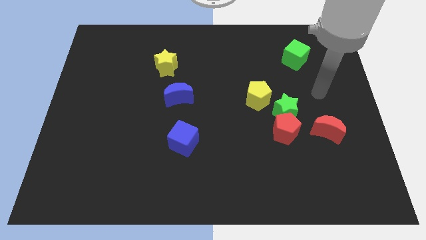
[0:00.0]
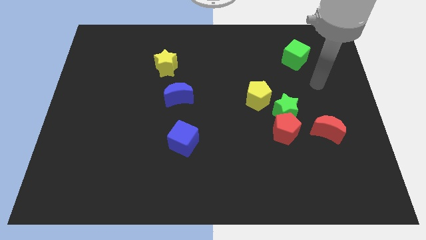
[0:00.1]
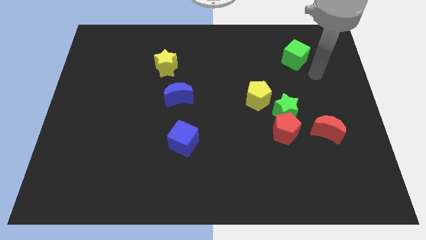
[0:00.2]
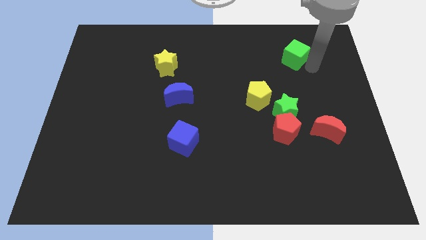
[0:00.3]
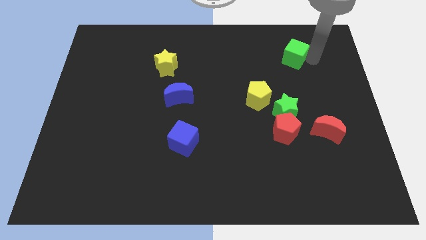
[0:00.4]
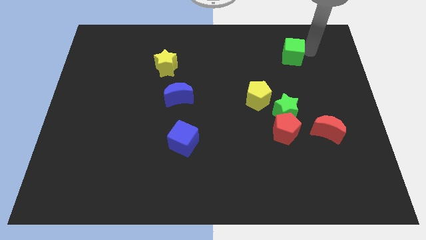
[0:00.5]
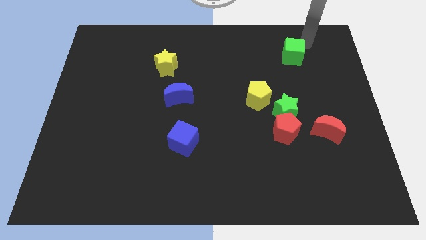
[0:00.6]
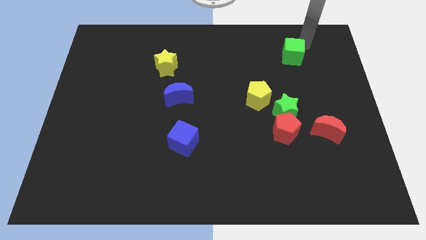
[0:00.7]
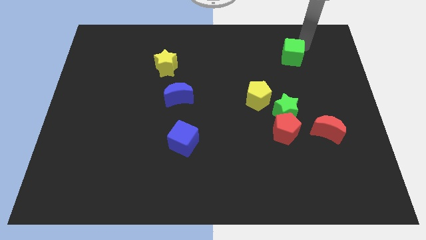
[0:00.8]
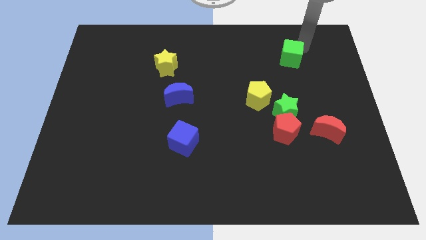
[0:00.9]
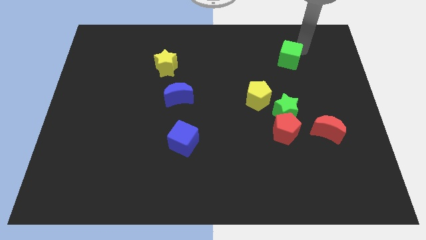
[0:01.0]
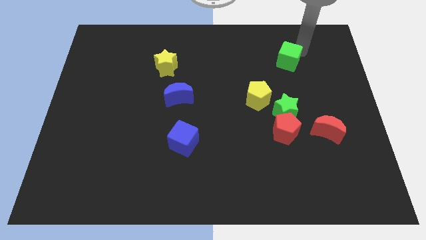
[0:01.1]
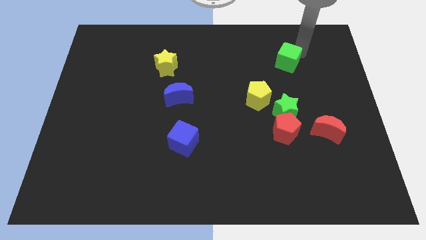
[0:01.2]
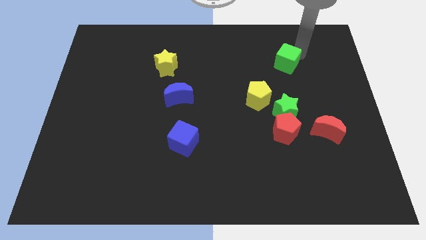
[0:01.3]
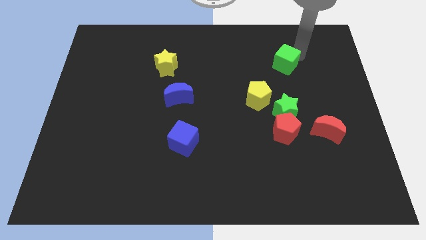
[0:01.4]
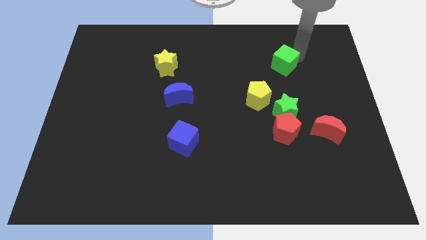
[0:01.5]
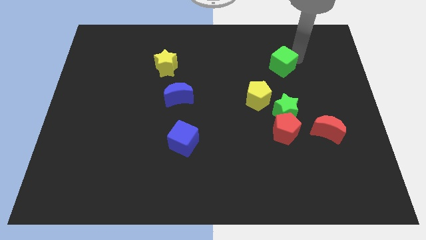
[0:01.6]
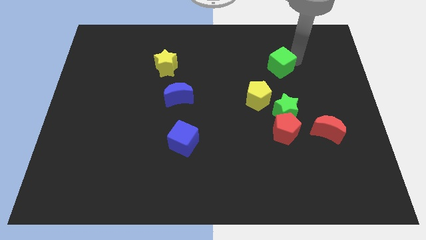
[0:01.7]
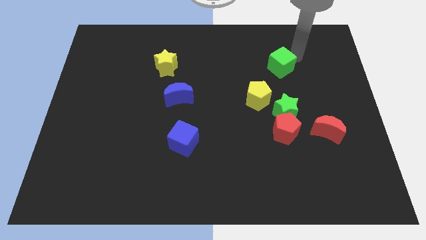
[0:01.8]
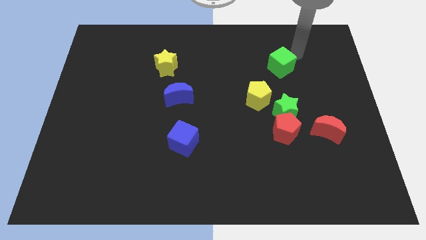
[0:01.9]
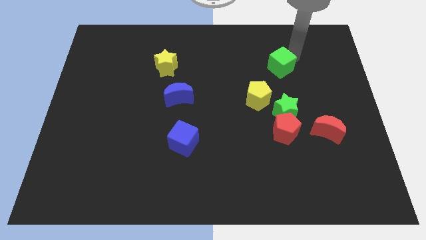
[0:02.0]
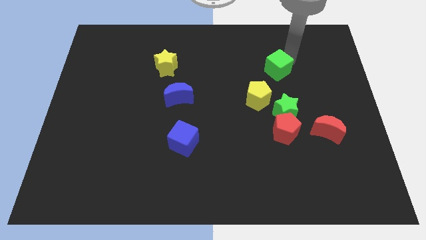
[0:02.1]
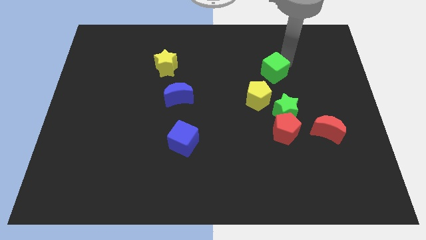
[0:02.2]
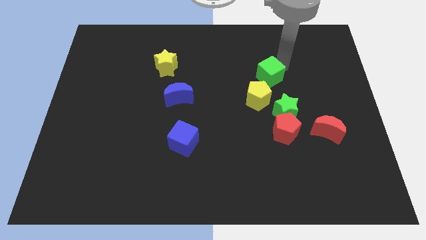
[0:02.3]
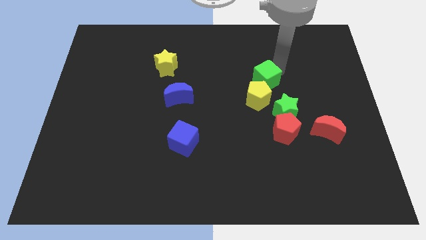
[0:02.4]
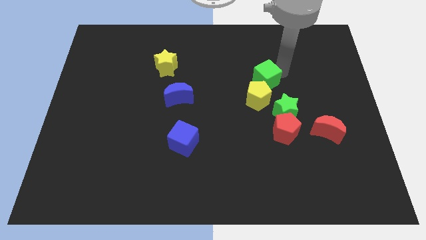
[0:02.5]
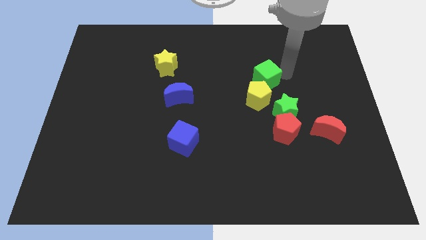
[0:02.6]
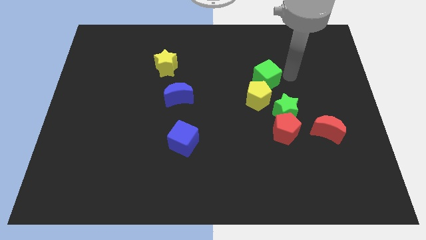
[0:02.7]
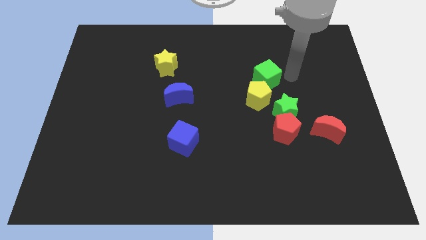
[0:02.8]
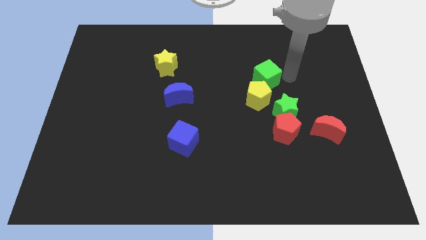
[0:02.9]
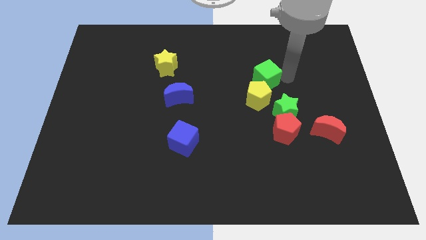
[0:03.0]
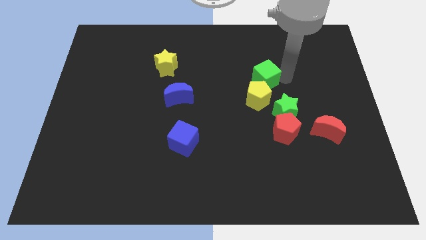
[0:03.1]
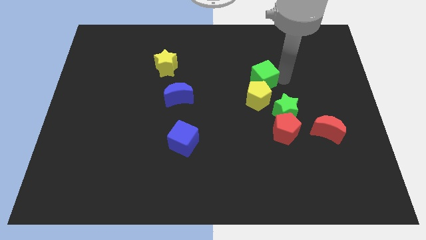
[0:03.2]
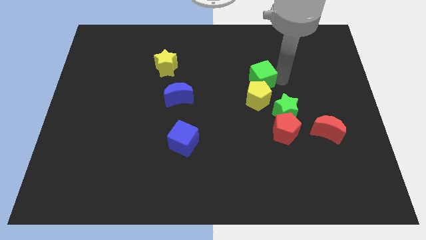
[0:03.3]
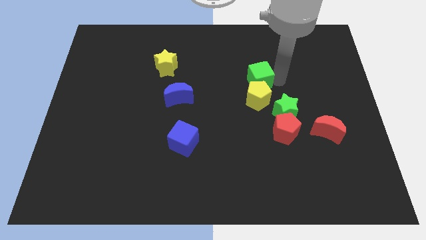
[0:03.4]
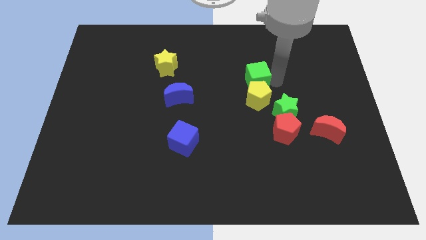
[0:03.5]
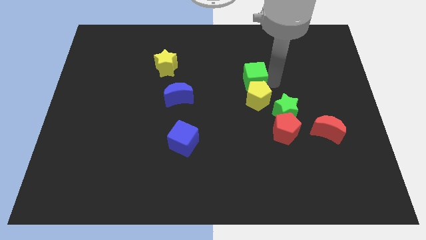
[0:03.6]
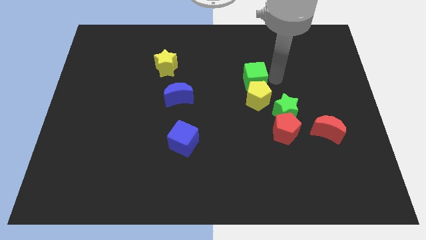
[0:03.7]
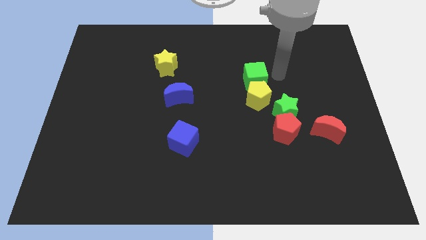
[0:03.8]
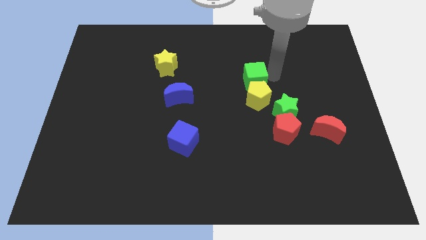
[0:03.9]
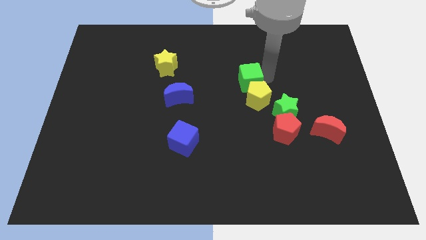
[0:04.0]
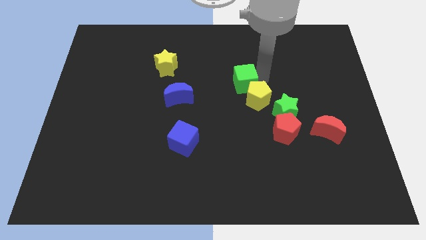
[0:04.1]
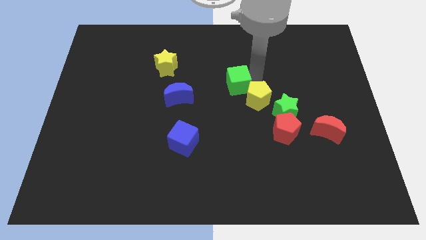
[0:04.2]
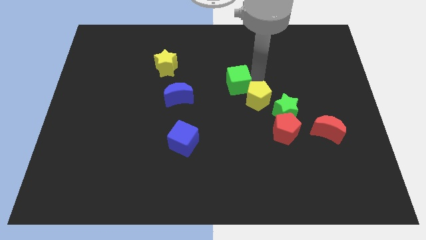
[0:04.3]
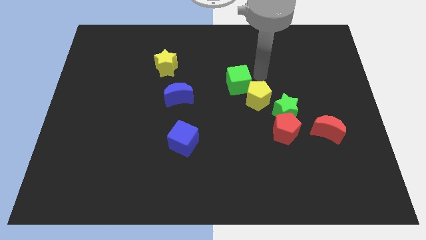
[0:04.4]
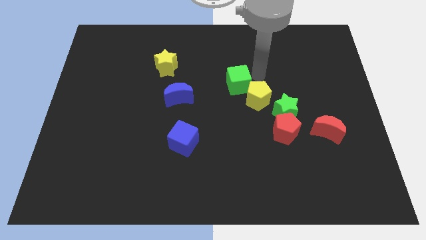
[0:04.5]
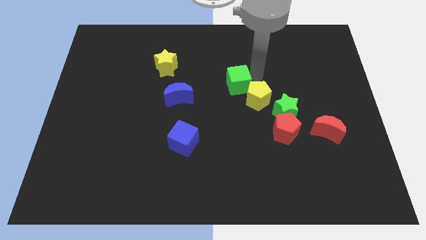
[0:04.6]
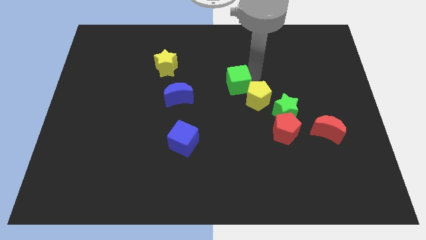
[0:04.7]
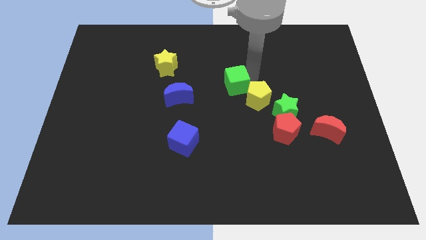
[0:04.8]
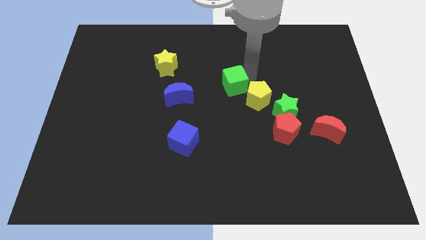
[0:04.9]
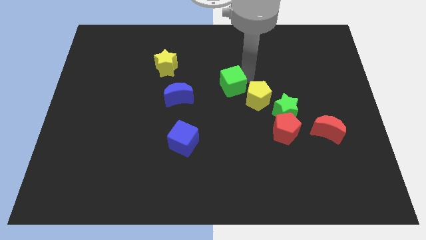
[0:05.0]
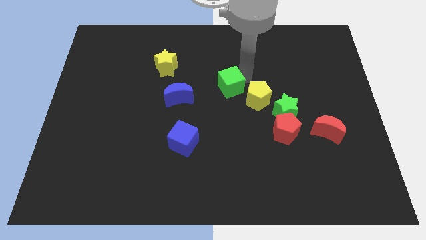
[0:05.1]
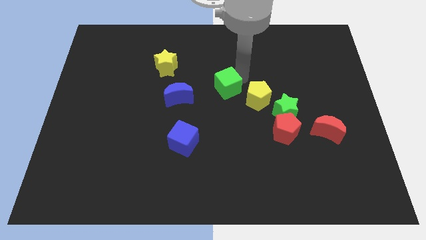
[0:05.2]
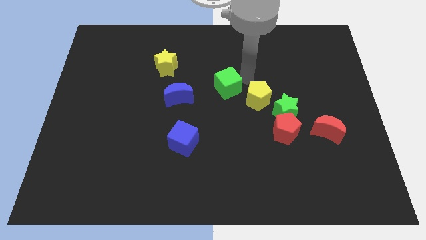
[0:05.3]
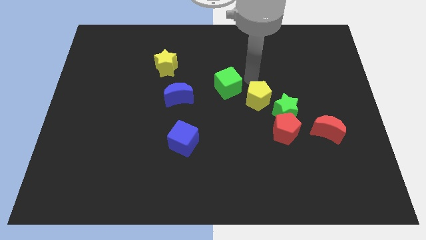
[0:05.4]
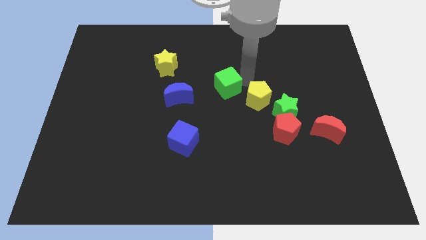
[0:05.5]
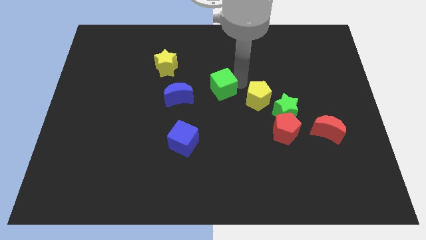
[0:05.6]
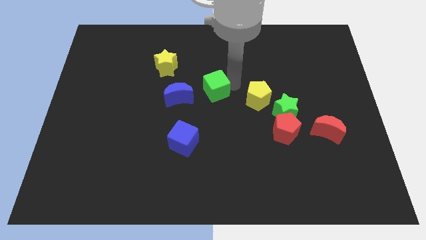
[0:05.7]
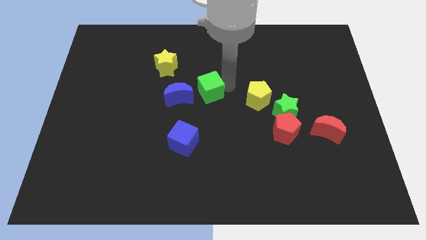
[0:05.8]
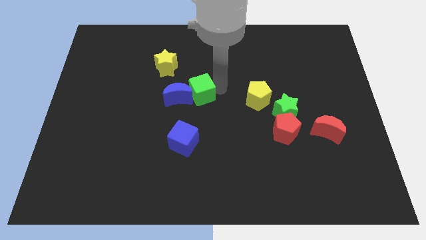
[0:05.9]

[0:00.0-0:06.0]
slide the green cube next to the blue moon

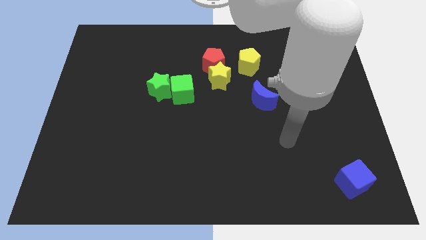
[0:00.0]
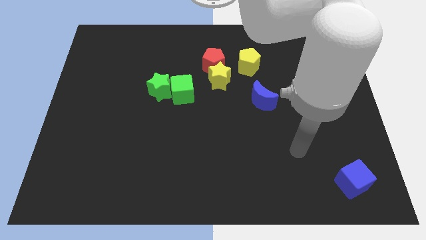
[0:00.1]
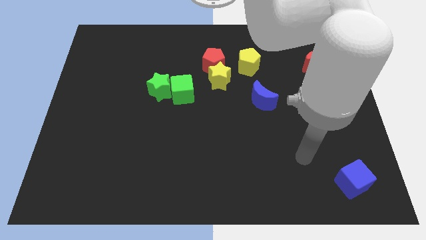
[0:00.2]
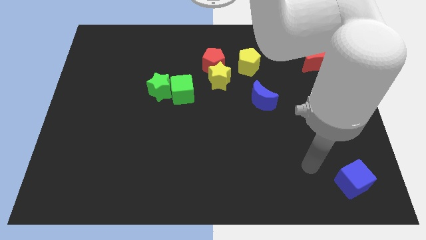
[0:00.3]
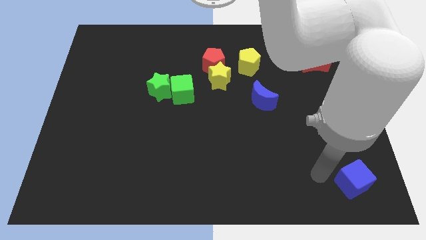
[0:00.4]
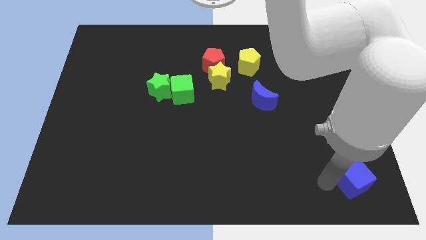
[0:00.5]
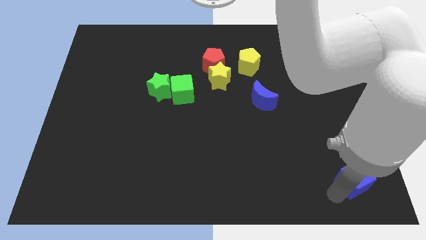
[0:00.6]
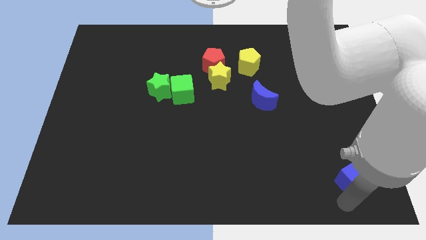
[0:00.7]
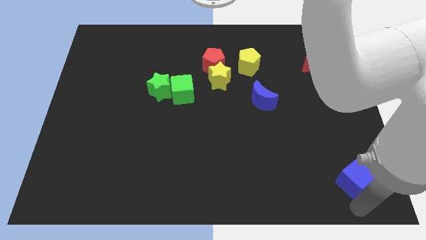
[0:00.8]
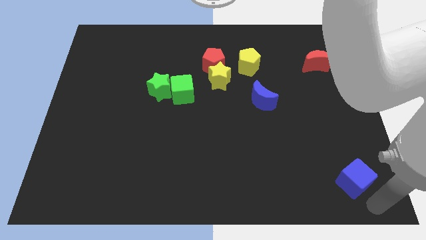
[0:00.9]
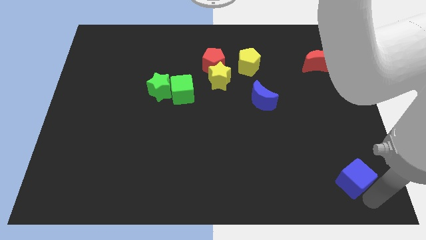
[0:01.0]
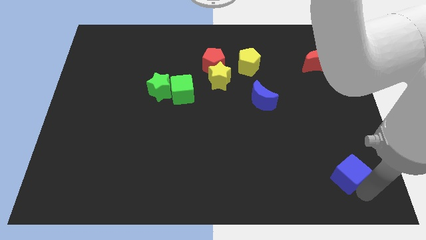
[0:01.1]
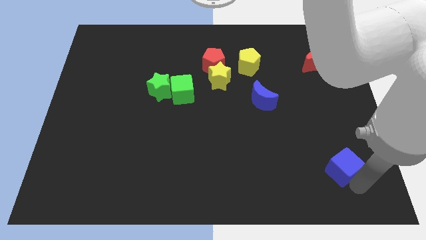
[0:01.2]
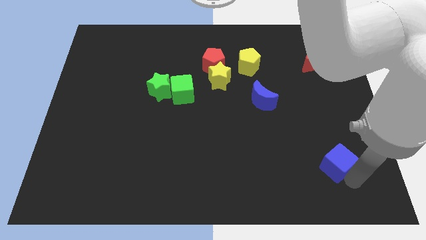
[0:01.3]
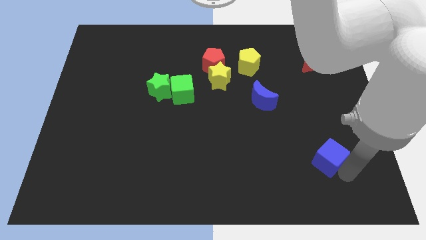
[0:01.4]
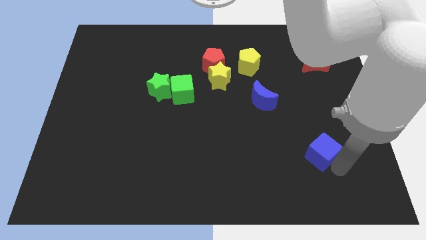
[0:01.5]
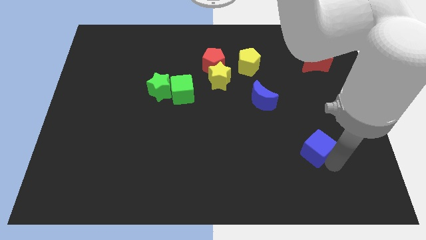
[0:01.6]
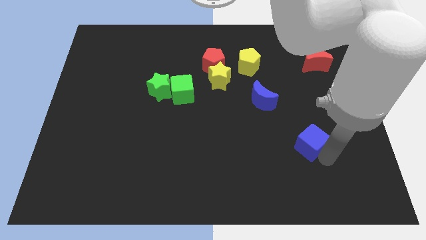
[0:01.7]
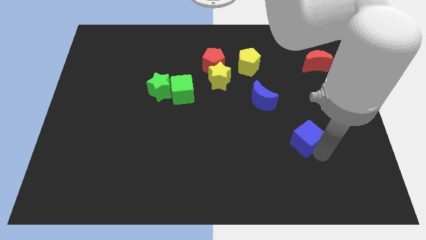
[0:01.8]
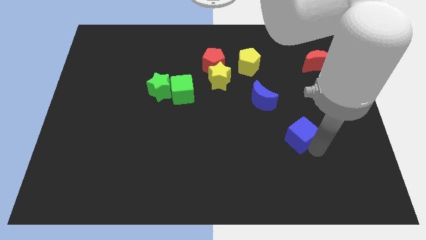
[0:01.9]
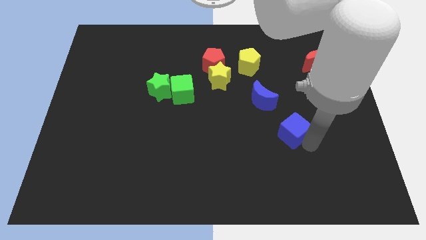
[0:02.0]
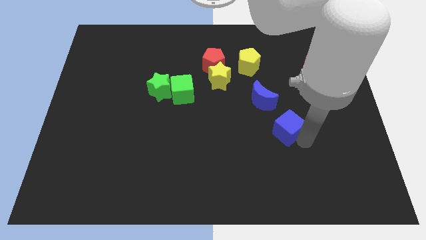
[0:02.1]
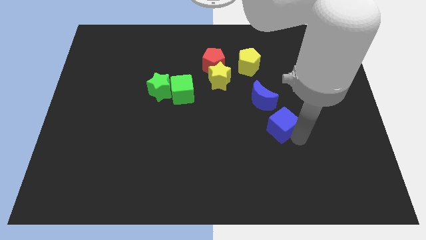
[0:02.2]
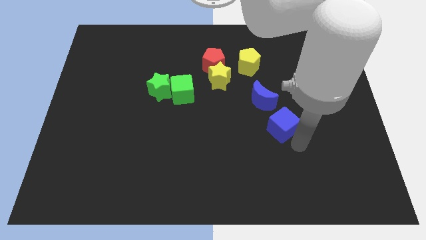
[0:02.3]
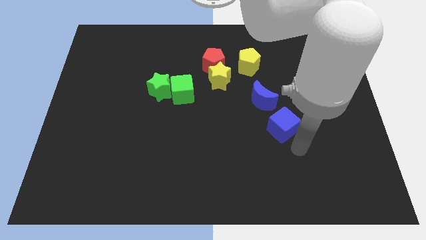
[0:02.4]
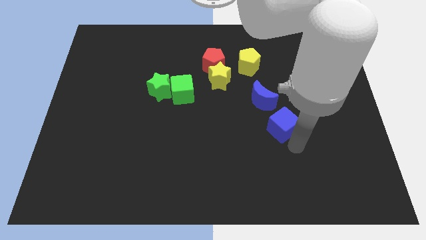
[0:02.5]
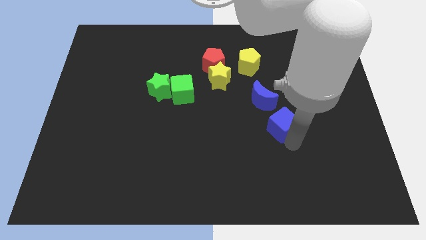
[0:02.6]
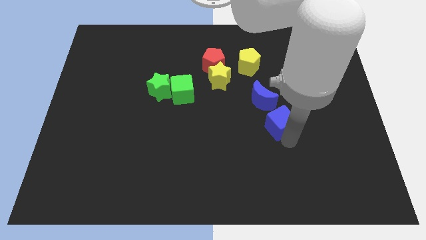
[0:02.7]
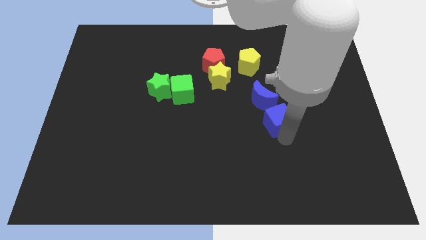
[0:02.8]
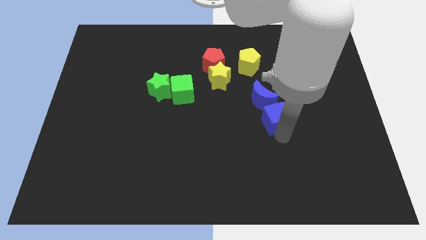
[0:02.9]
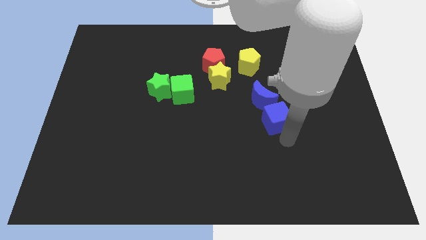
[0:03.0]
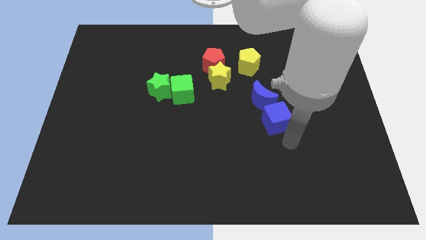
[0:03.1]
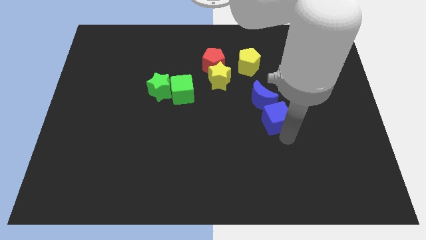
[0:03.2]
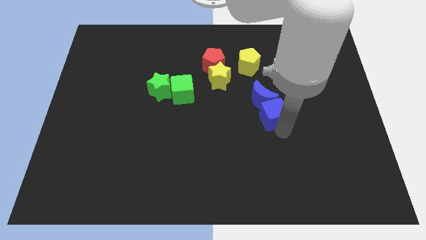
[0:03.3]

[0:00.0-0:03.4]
put the blue cube close to the blue moon
